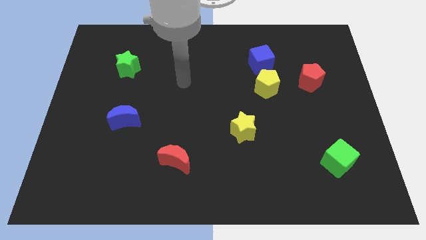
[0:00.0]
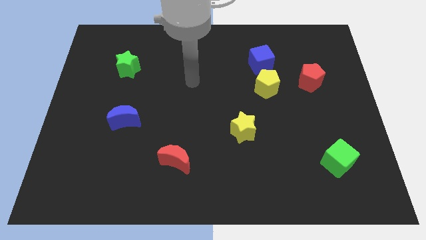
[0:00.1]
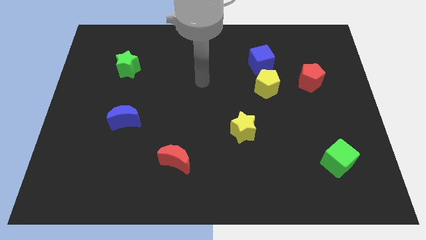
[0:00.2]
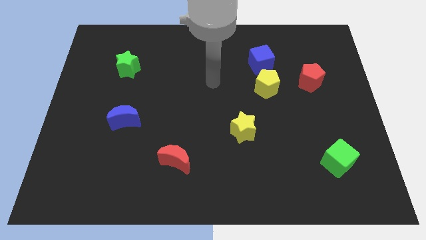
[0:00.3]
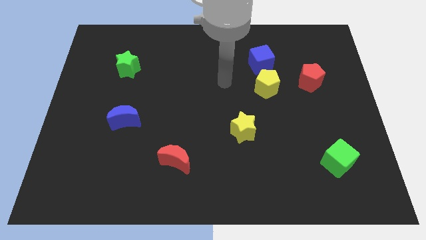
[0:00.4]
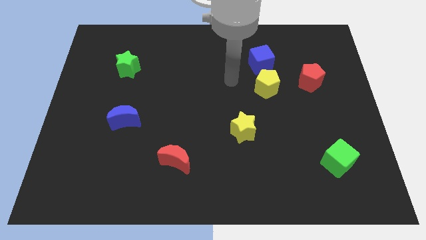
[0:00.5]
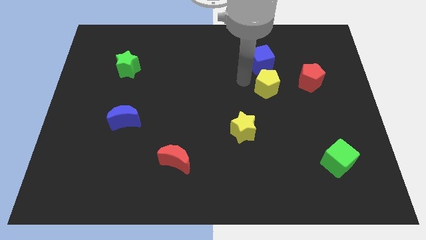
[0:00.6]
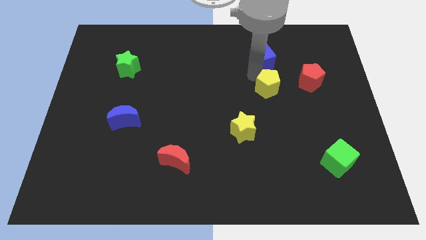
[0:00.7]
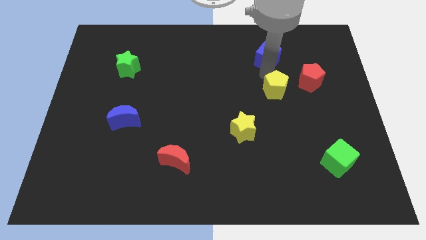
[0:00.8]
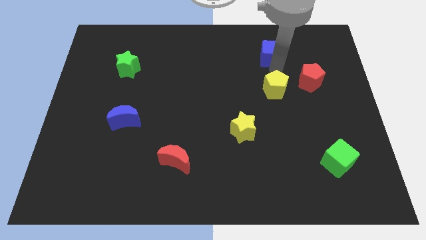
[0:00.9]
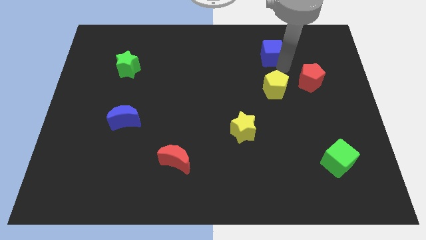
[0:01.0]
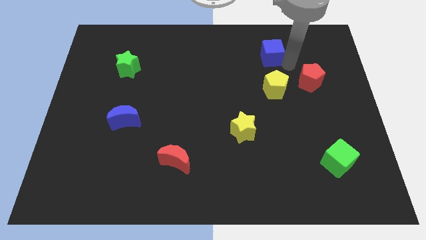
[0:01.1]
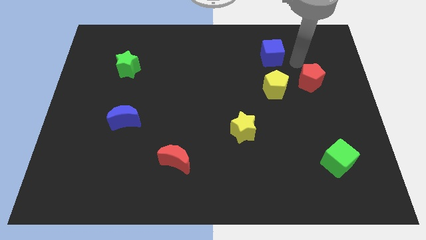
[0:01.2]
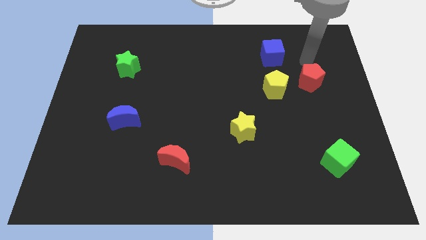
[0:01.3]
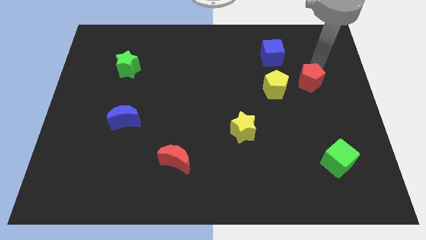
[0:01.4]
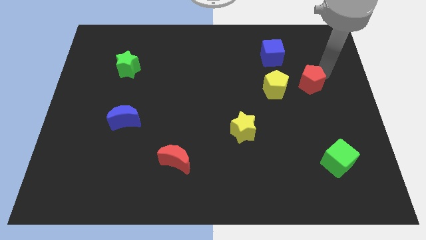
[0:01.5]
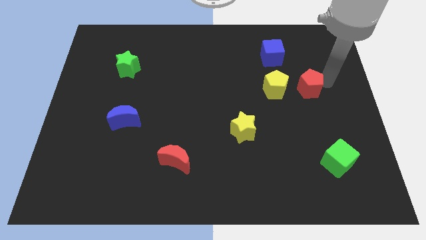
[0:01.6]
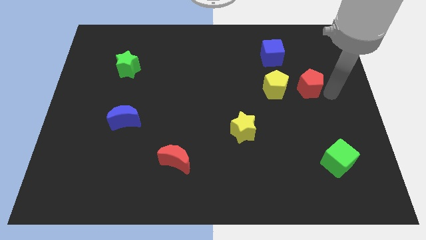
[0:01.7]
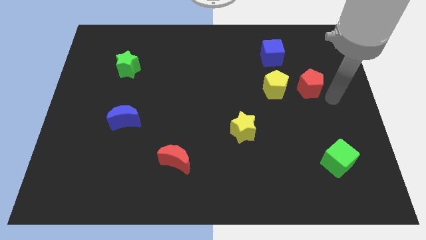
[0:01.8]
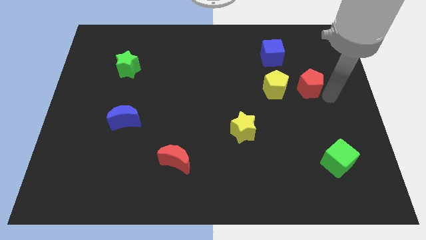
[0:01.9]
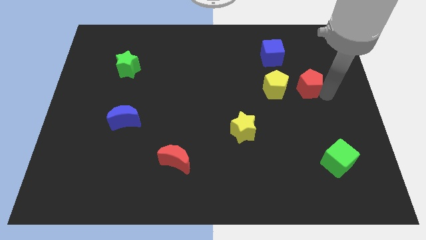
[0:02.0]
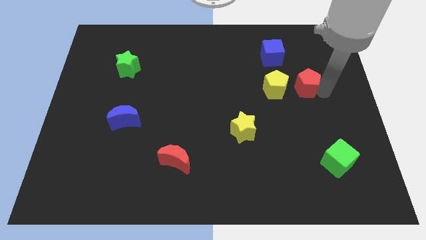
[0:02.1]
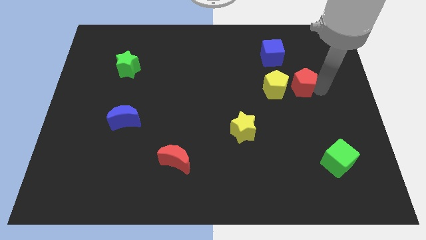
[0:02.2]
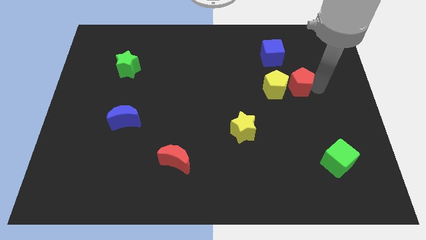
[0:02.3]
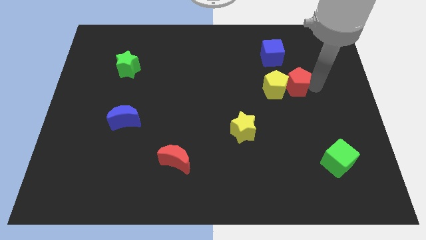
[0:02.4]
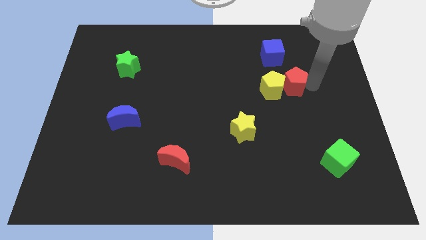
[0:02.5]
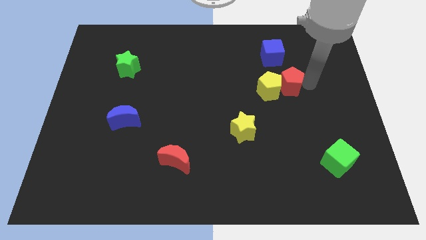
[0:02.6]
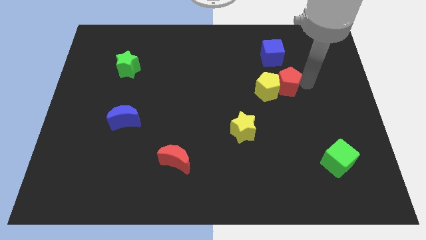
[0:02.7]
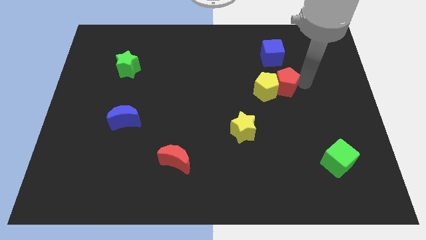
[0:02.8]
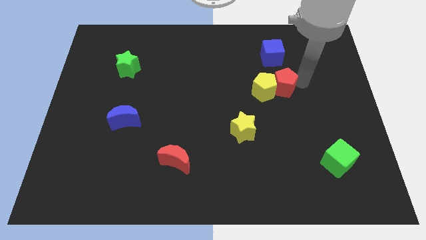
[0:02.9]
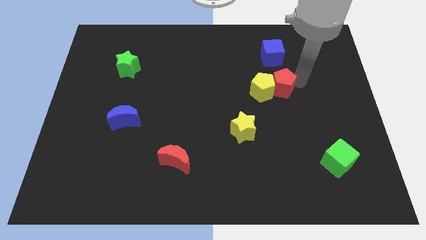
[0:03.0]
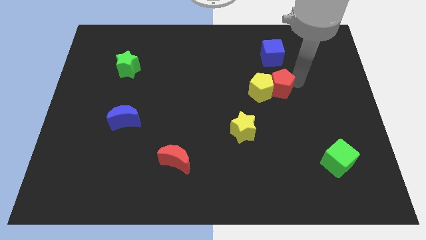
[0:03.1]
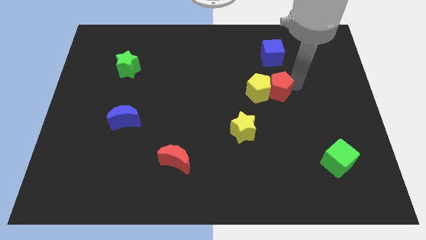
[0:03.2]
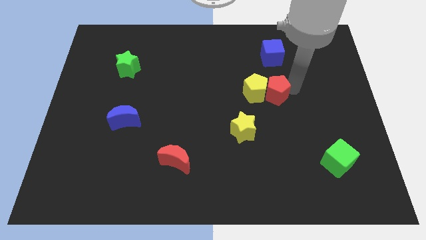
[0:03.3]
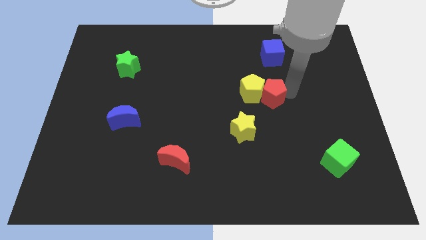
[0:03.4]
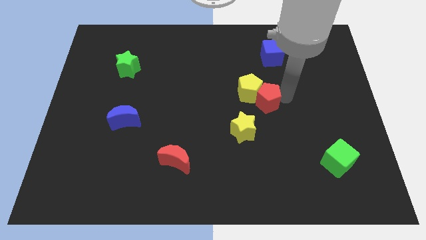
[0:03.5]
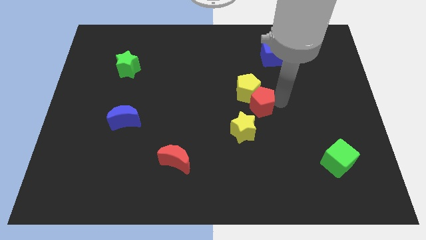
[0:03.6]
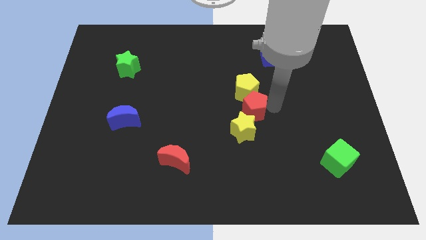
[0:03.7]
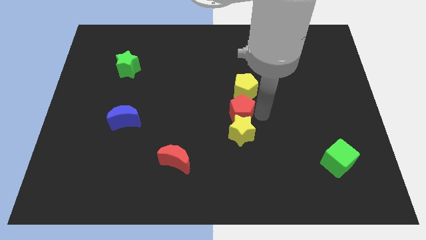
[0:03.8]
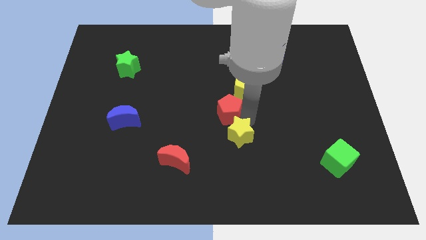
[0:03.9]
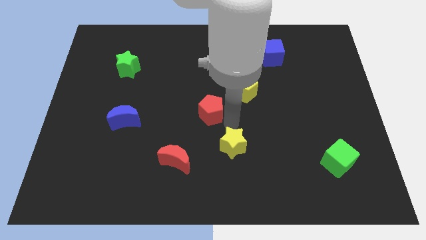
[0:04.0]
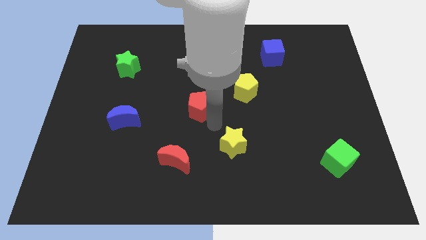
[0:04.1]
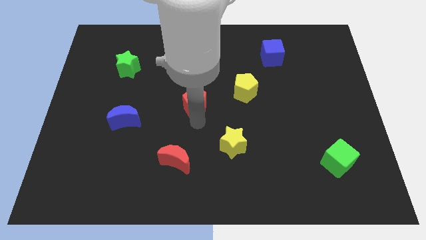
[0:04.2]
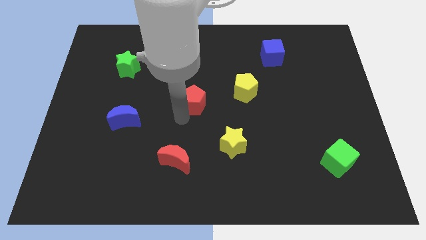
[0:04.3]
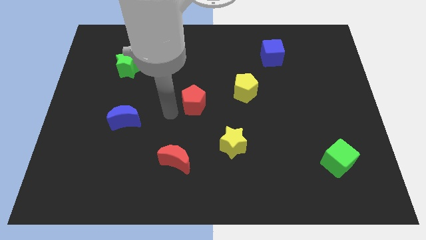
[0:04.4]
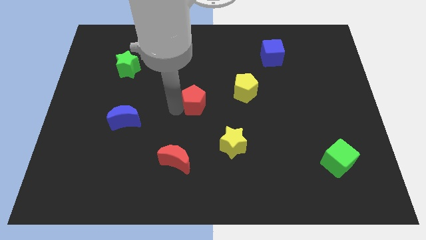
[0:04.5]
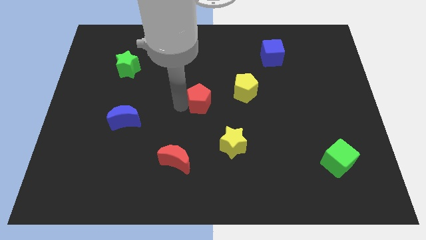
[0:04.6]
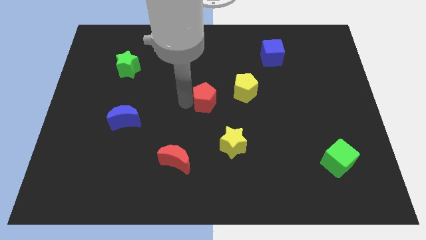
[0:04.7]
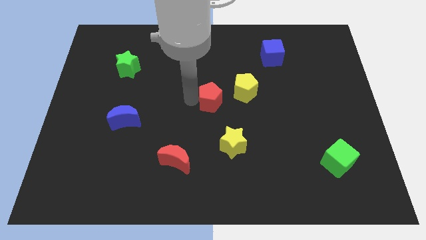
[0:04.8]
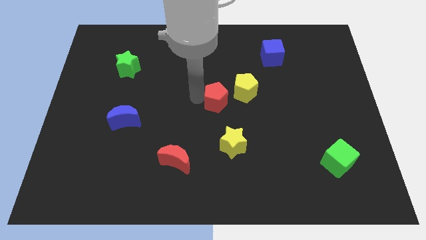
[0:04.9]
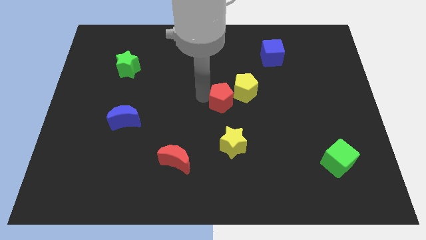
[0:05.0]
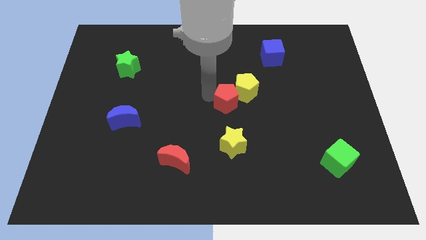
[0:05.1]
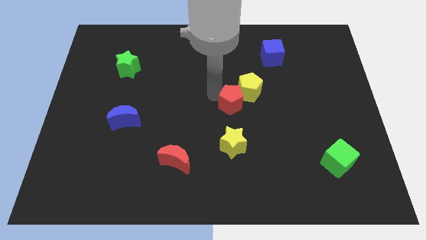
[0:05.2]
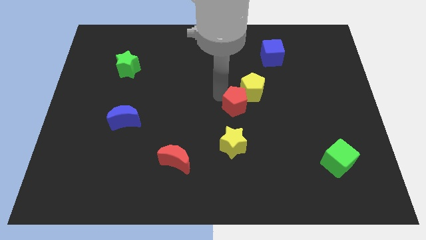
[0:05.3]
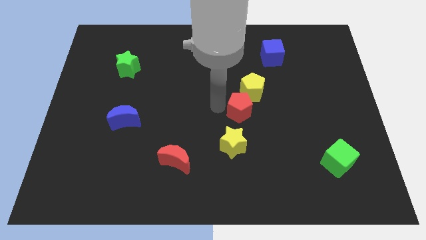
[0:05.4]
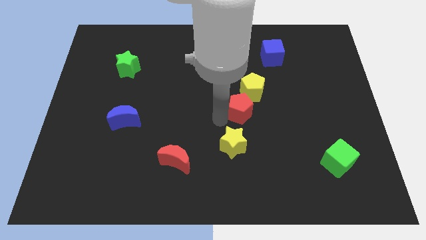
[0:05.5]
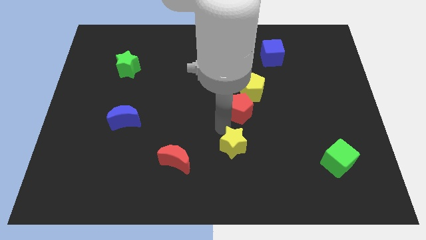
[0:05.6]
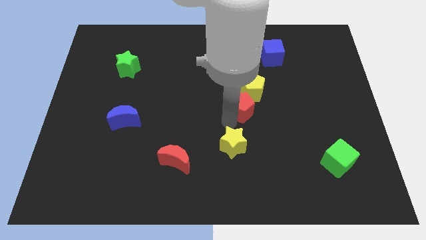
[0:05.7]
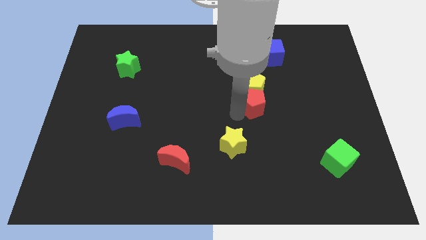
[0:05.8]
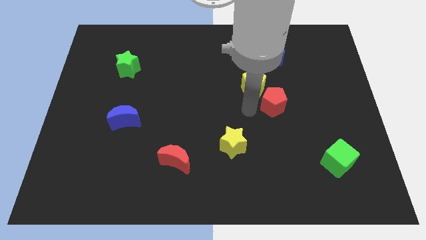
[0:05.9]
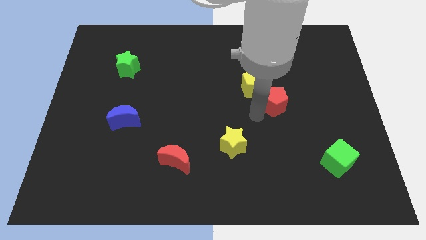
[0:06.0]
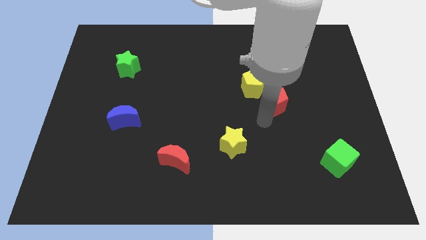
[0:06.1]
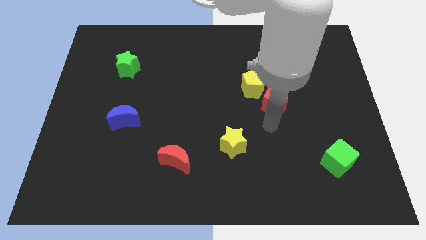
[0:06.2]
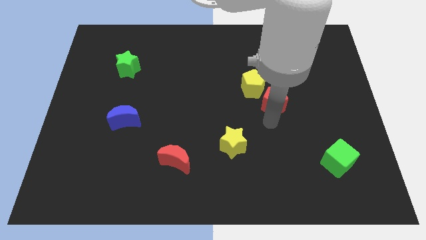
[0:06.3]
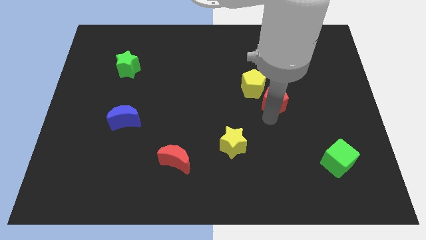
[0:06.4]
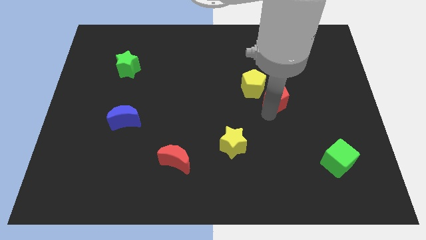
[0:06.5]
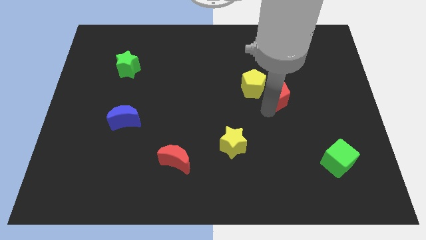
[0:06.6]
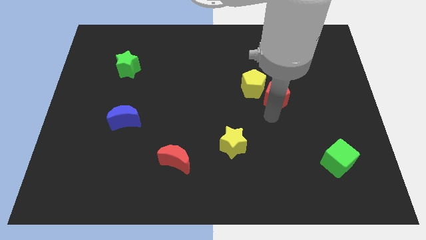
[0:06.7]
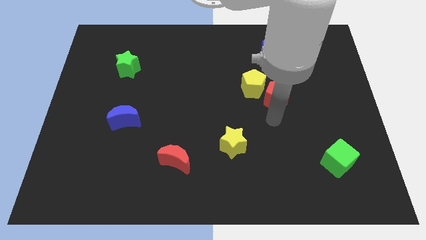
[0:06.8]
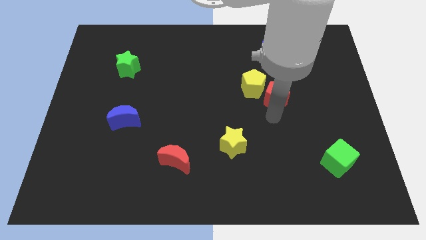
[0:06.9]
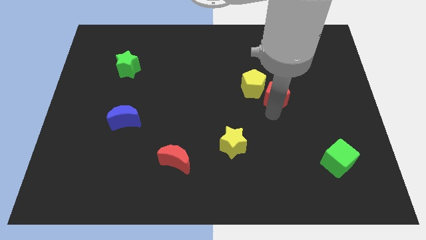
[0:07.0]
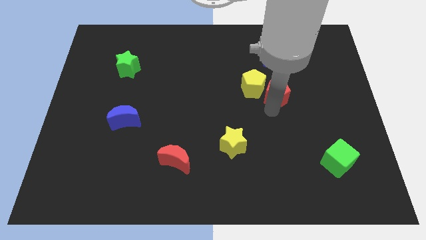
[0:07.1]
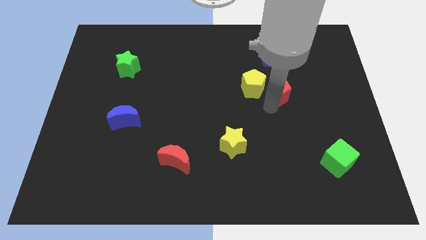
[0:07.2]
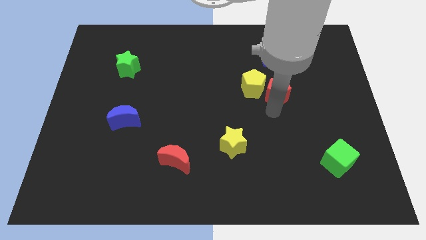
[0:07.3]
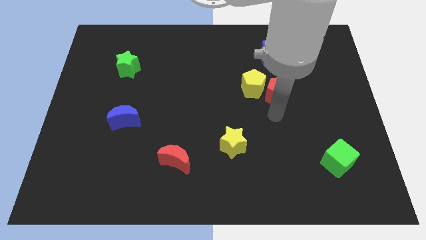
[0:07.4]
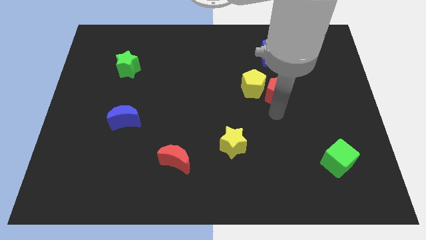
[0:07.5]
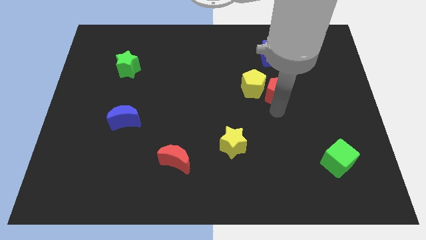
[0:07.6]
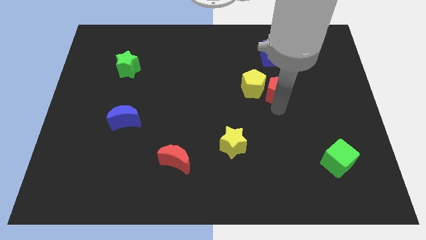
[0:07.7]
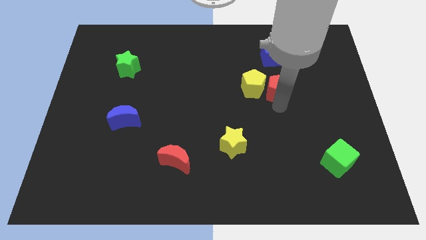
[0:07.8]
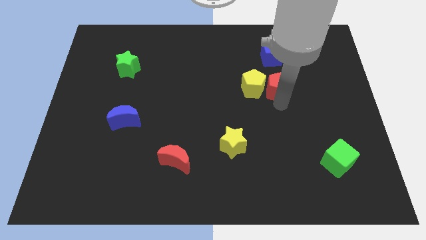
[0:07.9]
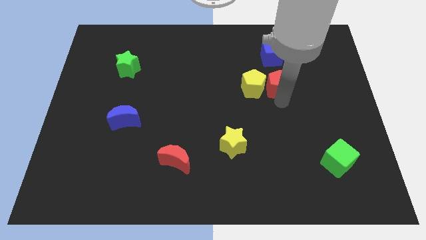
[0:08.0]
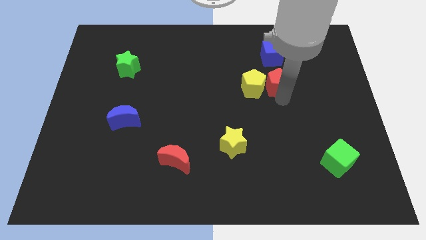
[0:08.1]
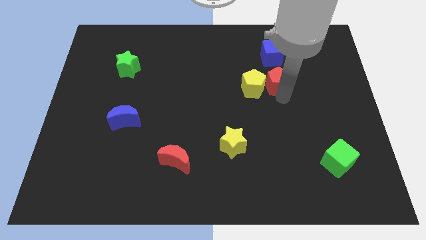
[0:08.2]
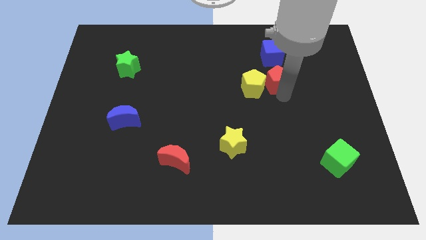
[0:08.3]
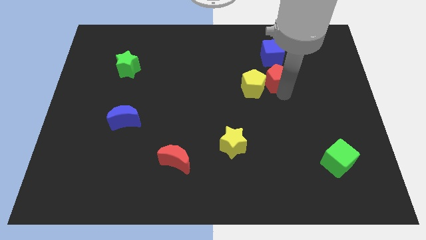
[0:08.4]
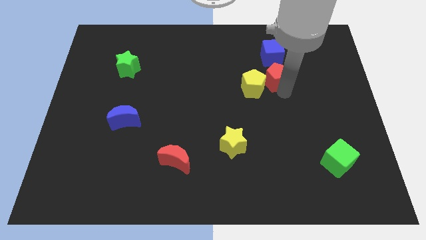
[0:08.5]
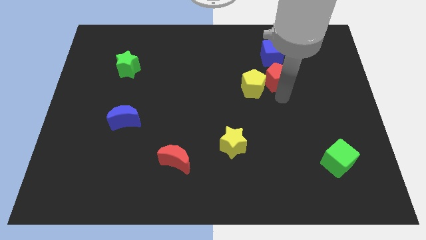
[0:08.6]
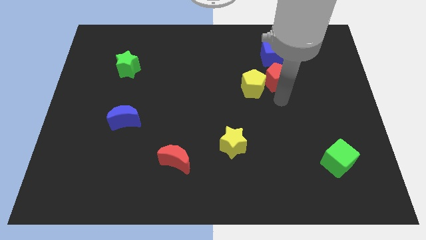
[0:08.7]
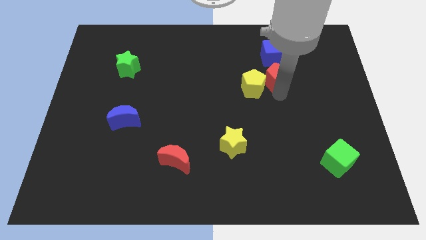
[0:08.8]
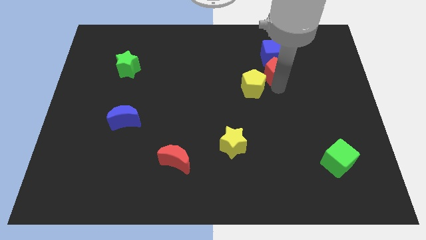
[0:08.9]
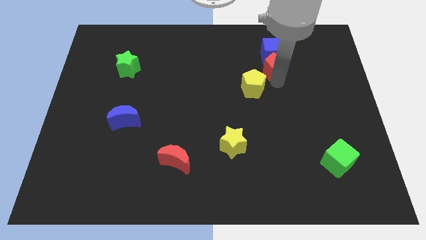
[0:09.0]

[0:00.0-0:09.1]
slide the red pentagon to the blue cube
